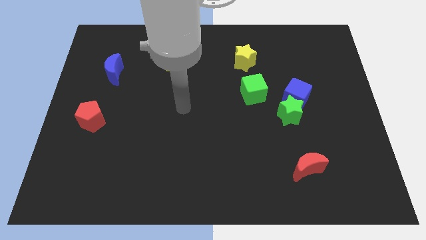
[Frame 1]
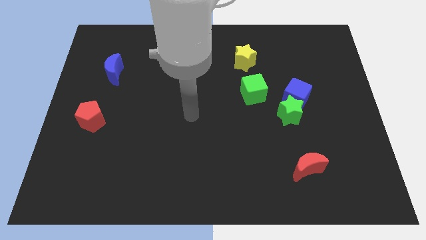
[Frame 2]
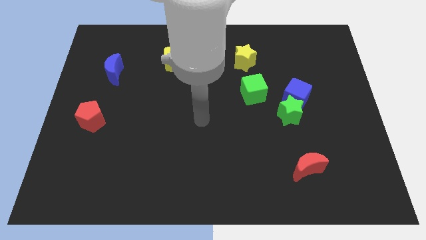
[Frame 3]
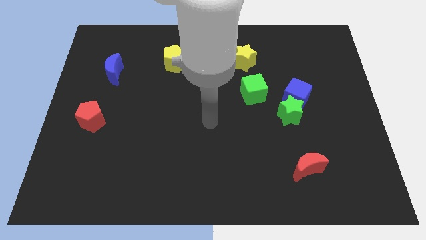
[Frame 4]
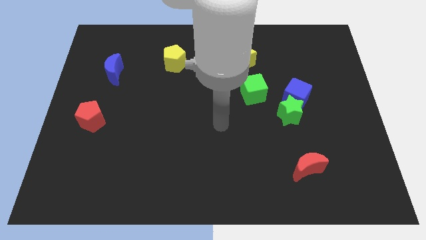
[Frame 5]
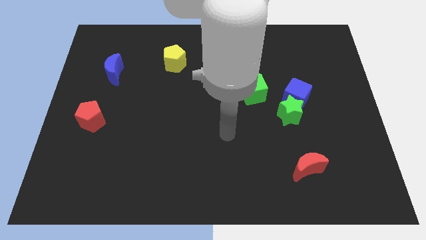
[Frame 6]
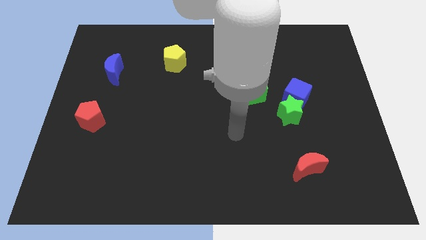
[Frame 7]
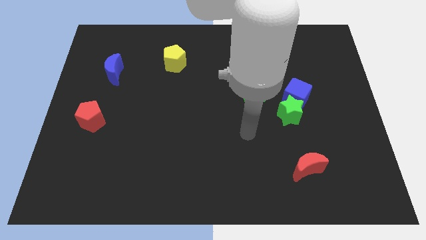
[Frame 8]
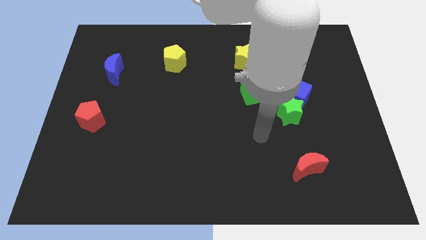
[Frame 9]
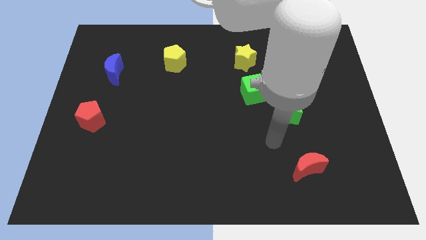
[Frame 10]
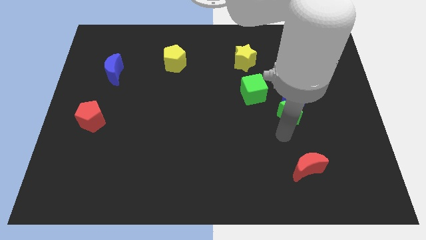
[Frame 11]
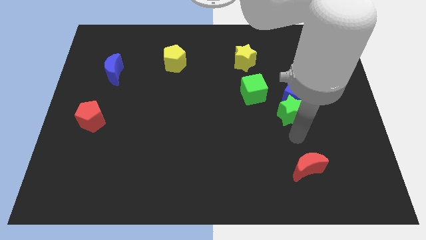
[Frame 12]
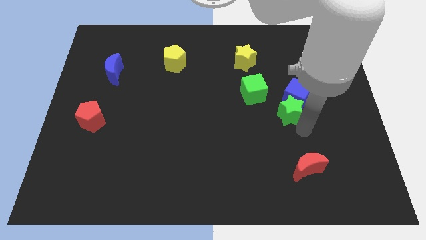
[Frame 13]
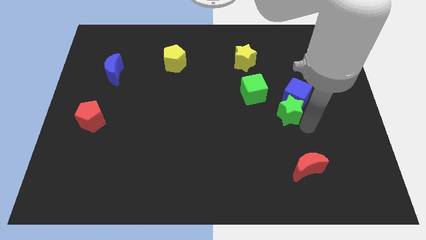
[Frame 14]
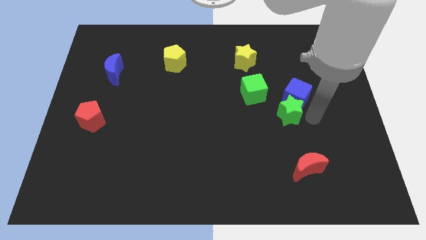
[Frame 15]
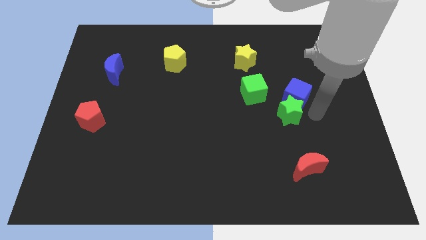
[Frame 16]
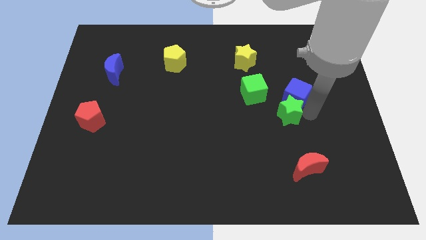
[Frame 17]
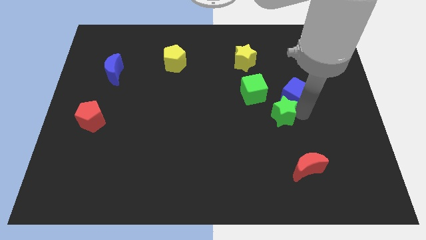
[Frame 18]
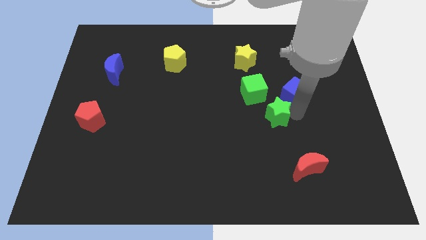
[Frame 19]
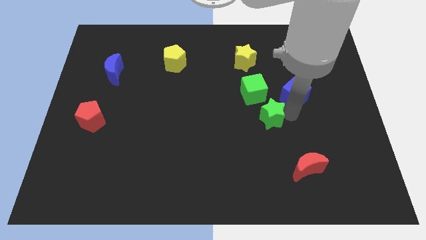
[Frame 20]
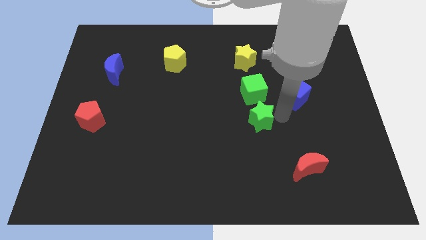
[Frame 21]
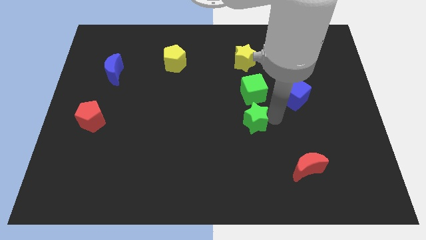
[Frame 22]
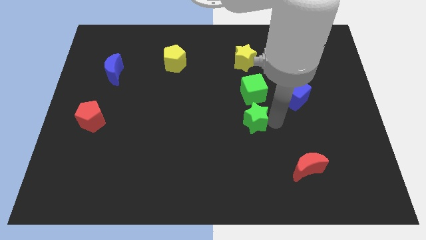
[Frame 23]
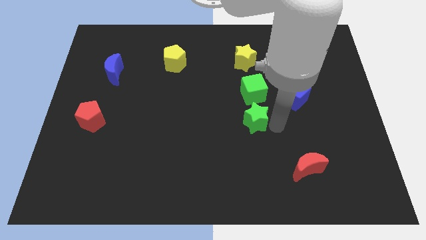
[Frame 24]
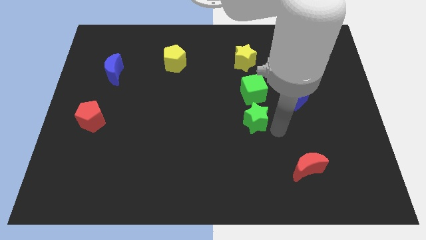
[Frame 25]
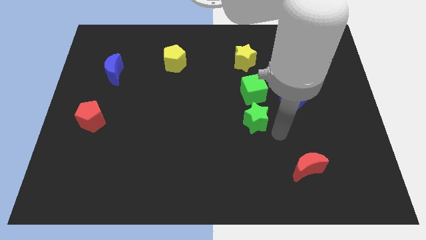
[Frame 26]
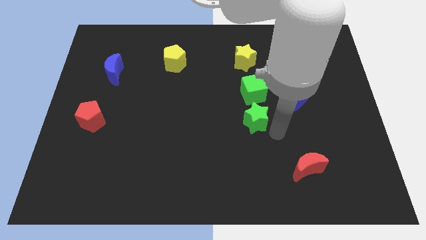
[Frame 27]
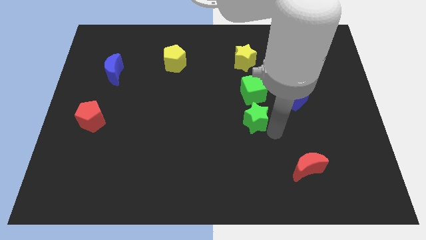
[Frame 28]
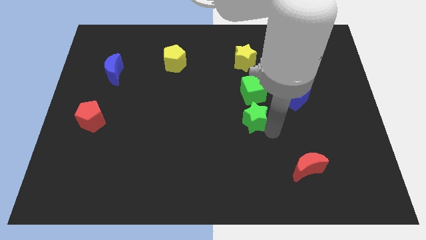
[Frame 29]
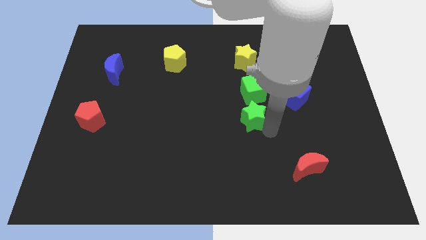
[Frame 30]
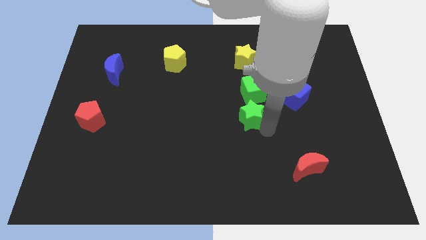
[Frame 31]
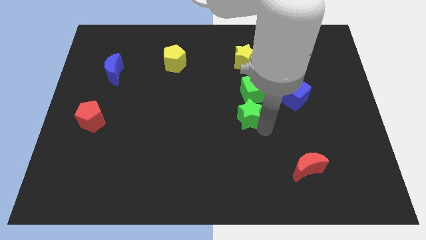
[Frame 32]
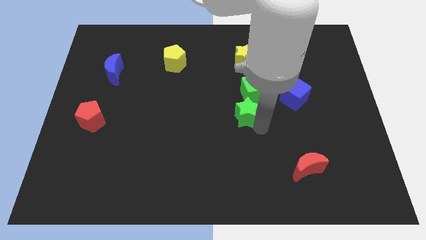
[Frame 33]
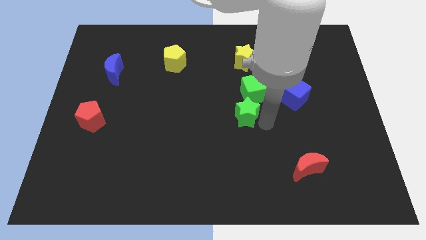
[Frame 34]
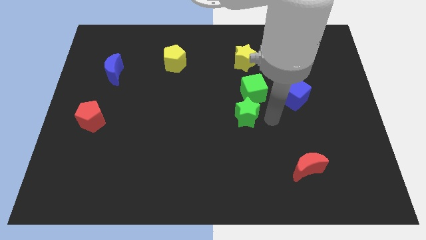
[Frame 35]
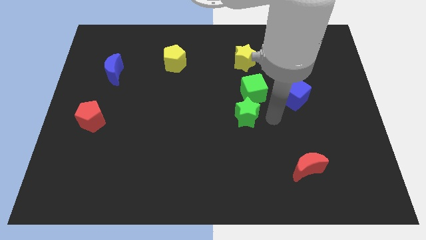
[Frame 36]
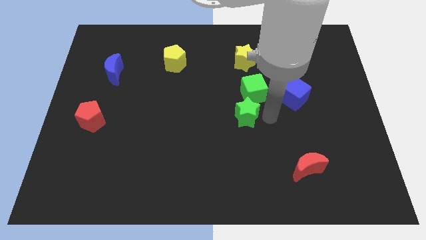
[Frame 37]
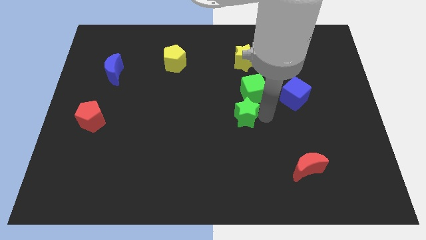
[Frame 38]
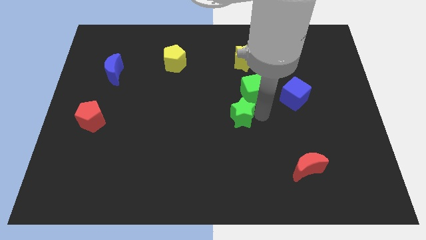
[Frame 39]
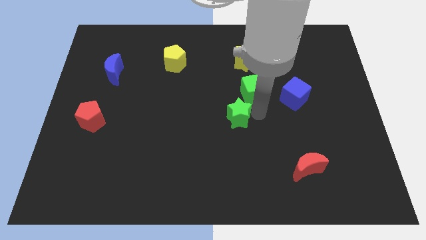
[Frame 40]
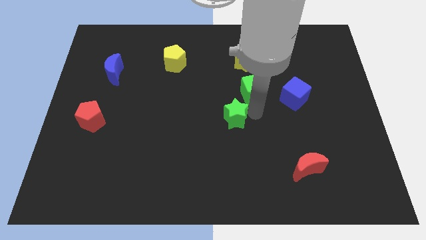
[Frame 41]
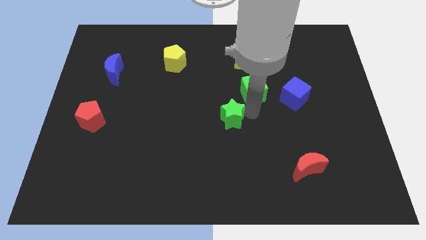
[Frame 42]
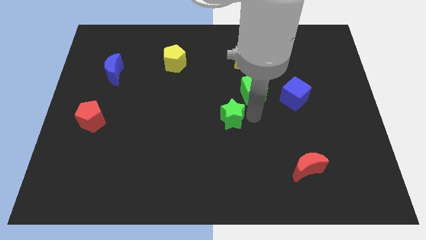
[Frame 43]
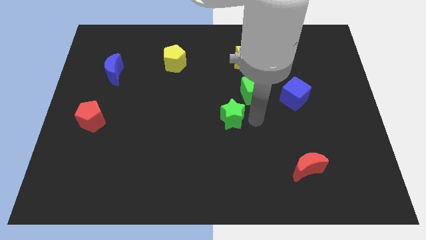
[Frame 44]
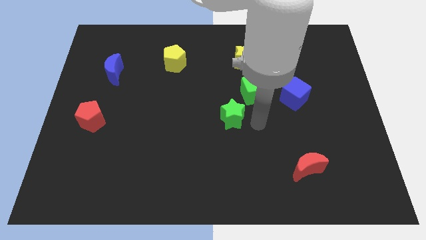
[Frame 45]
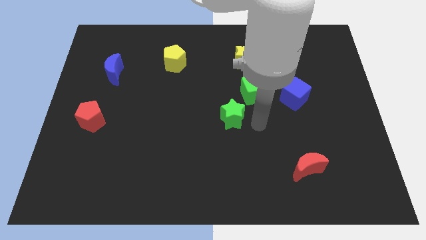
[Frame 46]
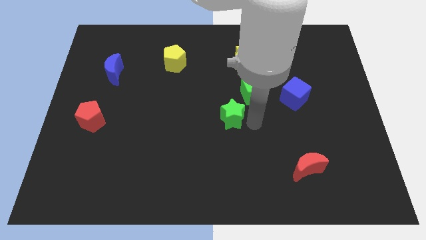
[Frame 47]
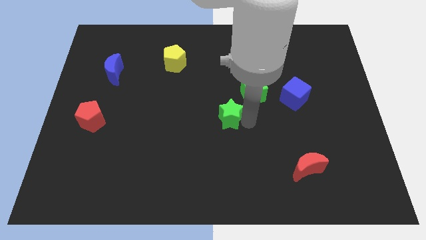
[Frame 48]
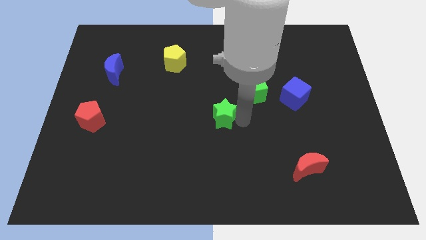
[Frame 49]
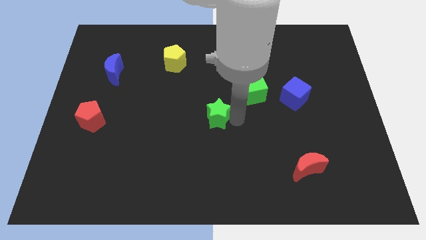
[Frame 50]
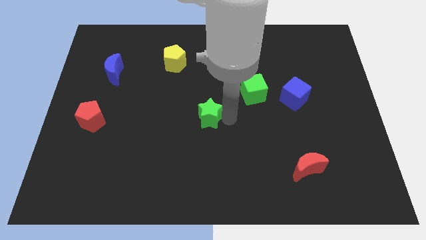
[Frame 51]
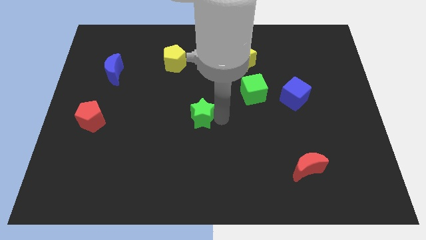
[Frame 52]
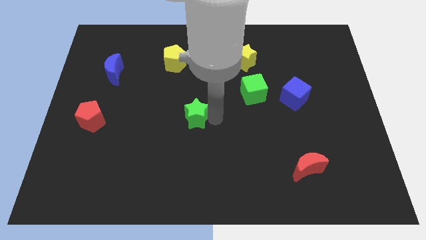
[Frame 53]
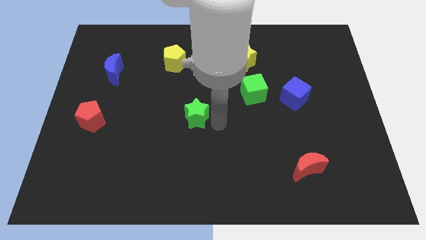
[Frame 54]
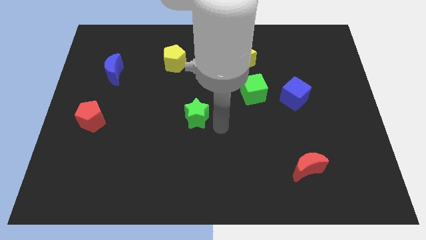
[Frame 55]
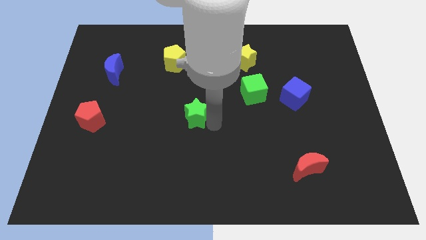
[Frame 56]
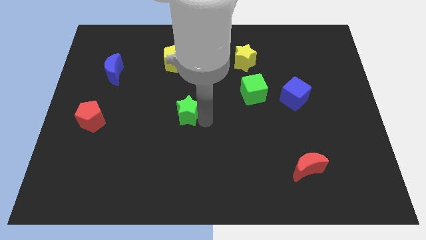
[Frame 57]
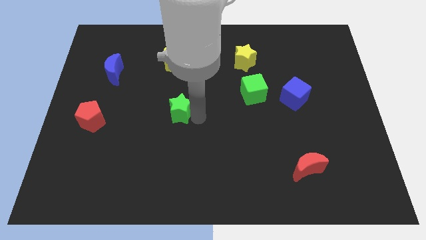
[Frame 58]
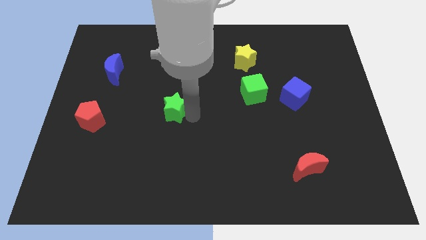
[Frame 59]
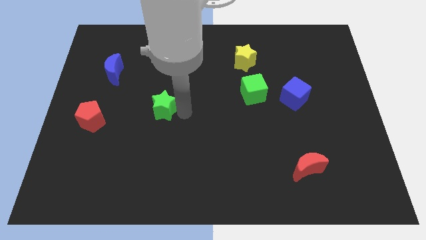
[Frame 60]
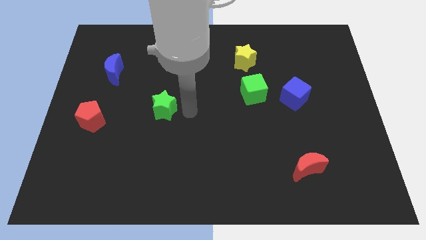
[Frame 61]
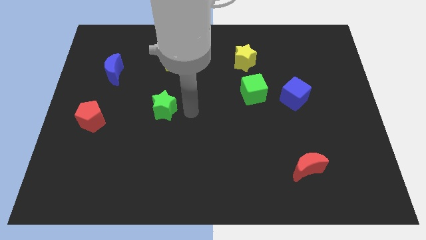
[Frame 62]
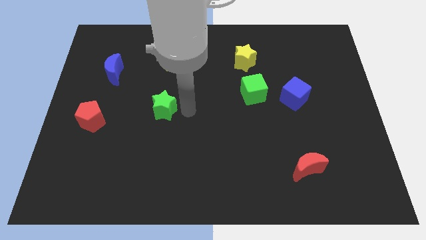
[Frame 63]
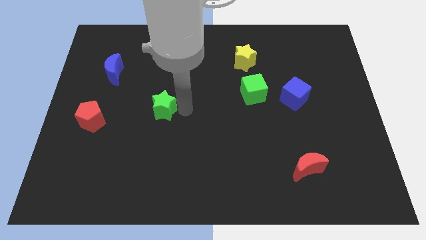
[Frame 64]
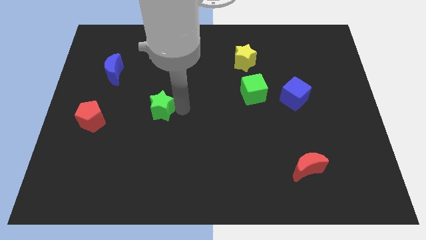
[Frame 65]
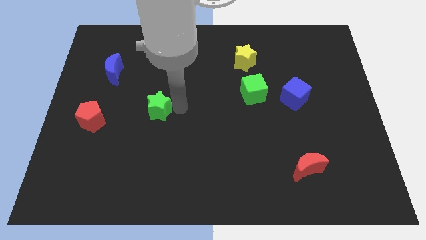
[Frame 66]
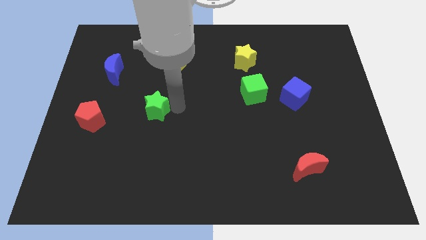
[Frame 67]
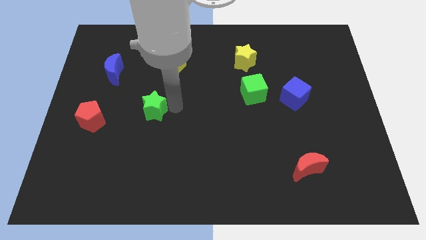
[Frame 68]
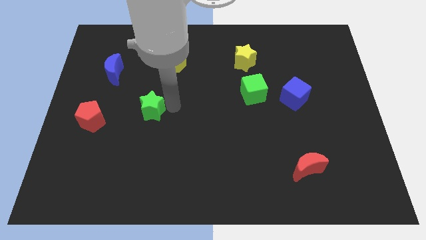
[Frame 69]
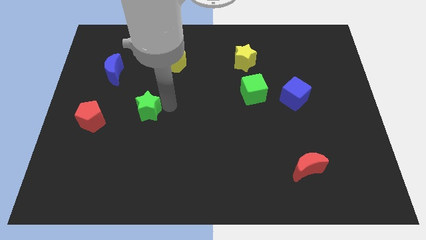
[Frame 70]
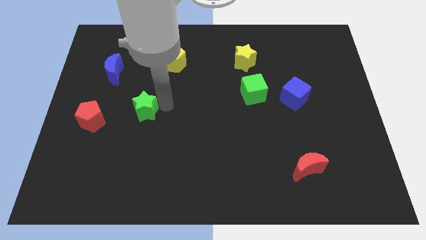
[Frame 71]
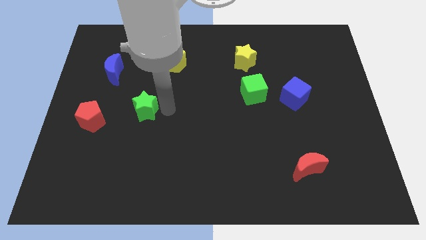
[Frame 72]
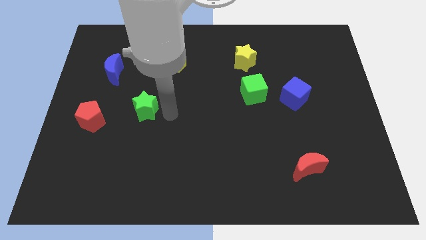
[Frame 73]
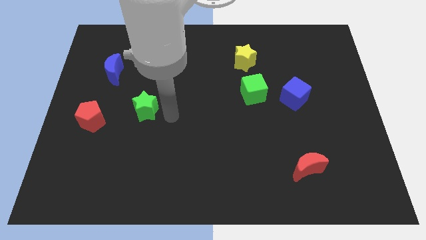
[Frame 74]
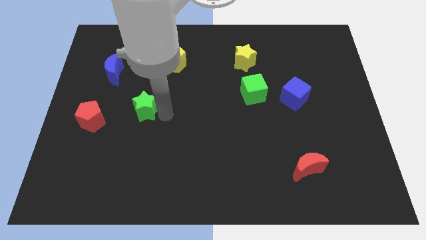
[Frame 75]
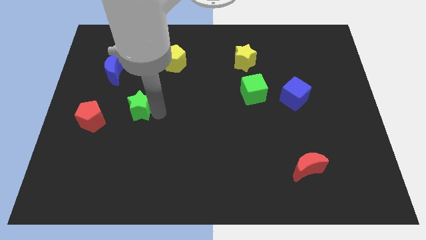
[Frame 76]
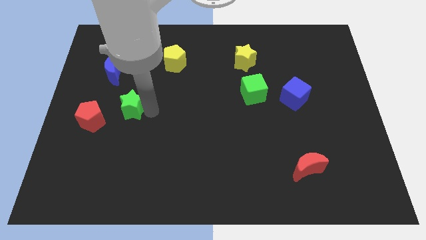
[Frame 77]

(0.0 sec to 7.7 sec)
move the green star to the top right of the red pentagon
